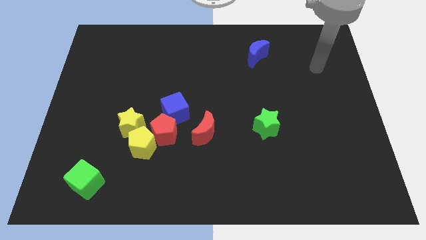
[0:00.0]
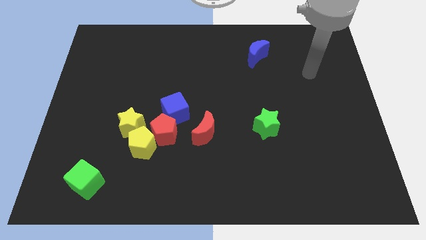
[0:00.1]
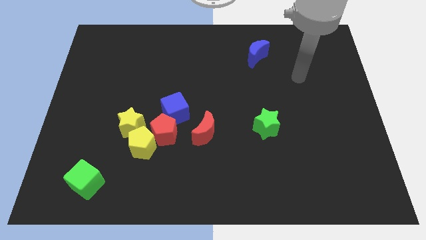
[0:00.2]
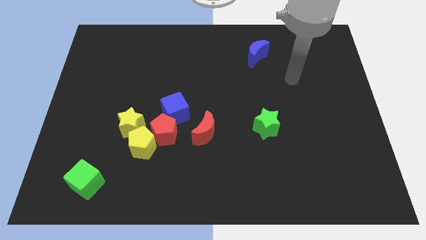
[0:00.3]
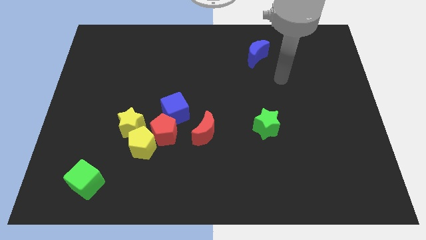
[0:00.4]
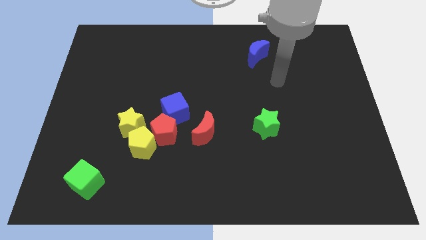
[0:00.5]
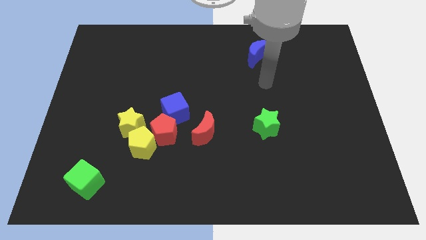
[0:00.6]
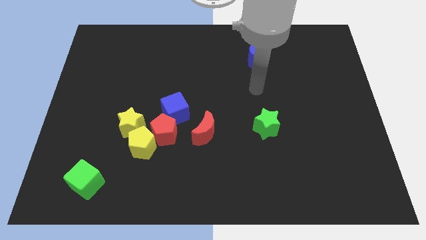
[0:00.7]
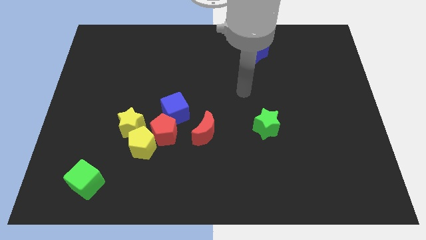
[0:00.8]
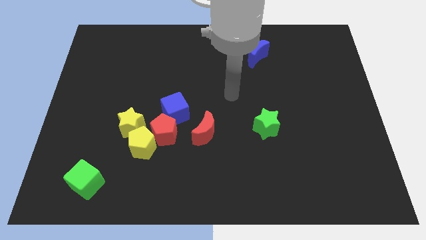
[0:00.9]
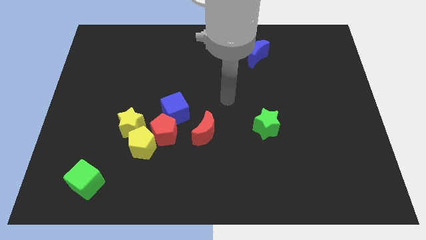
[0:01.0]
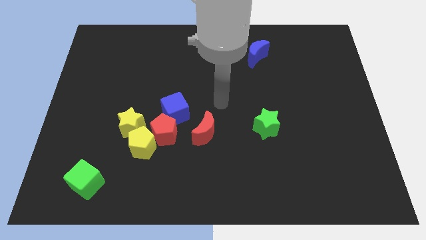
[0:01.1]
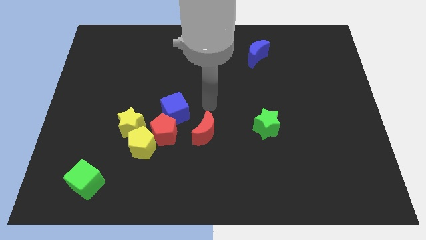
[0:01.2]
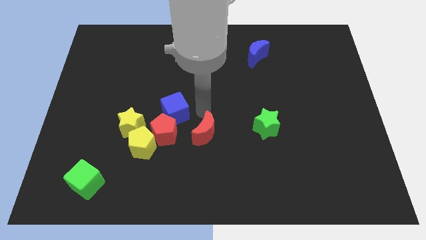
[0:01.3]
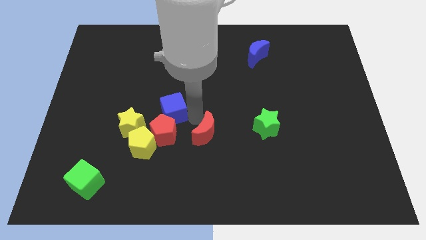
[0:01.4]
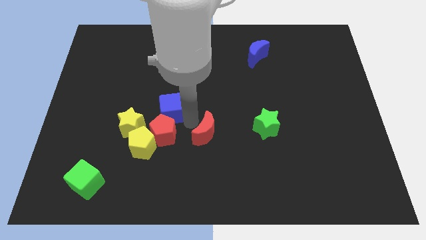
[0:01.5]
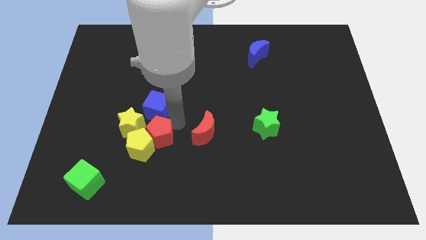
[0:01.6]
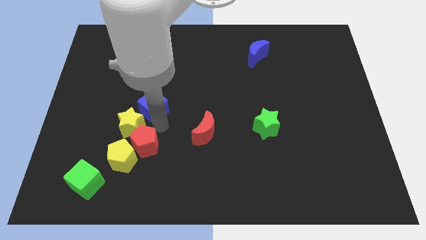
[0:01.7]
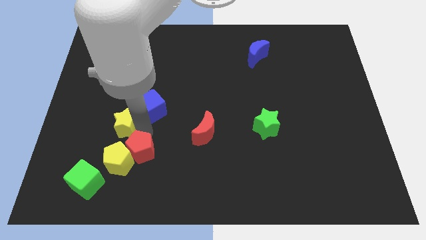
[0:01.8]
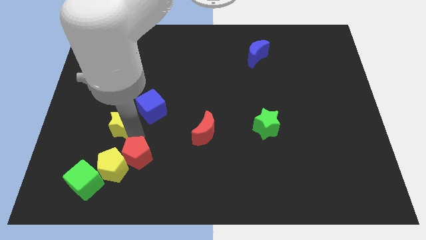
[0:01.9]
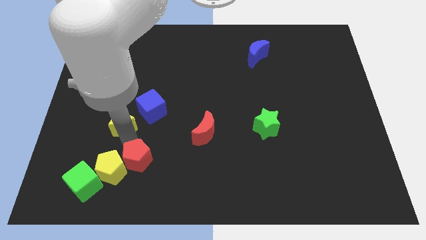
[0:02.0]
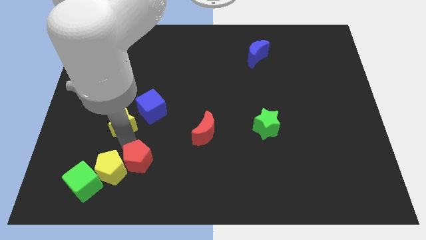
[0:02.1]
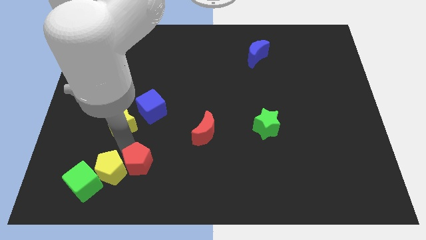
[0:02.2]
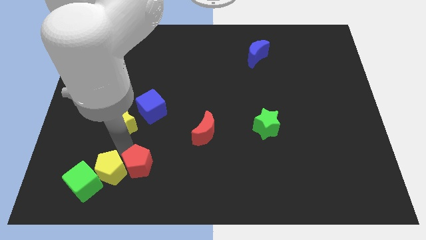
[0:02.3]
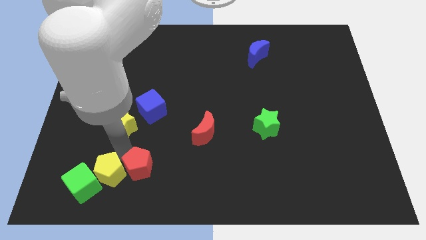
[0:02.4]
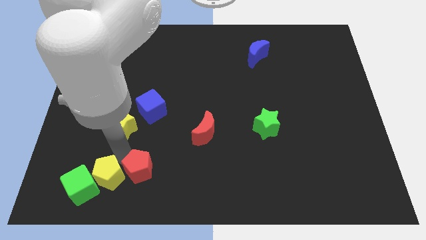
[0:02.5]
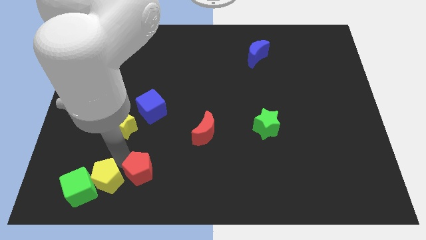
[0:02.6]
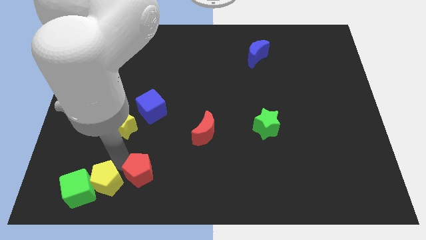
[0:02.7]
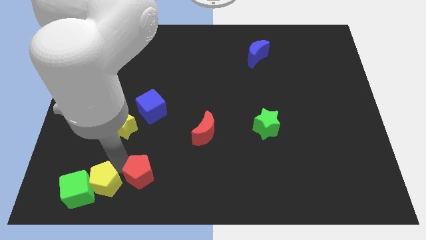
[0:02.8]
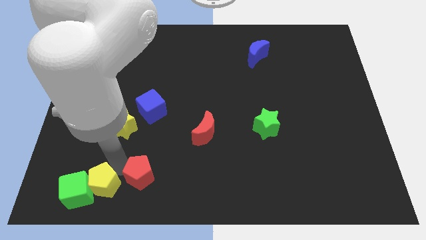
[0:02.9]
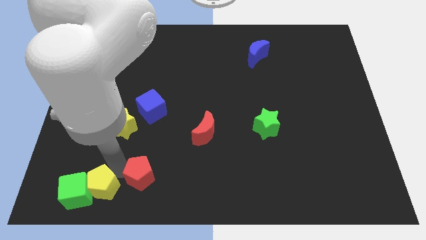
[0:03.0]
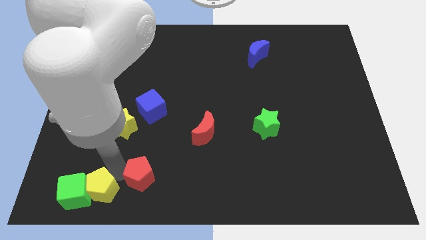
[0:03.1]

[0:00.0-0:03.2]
pull the yellow pentagon apart from the red pentagon and yellow star

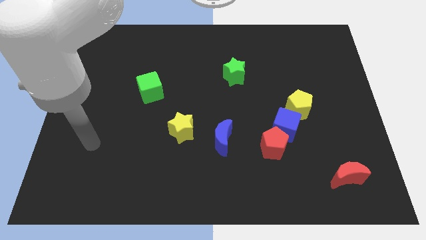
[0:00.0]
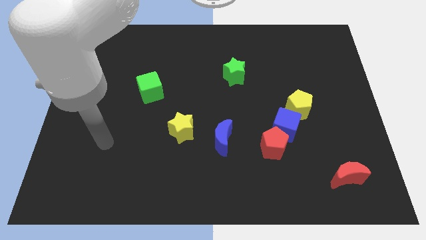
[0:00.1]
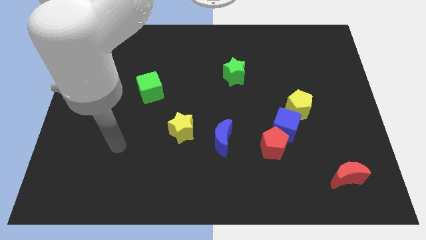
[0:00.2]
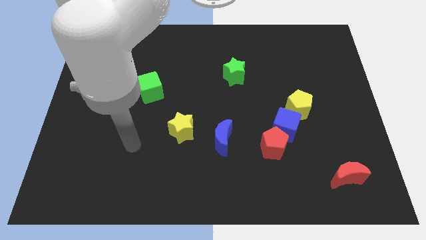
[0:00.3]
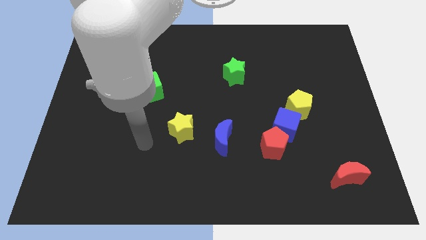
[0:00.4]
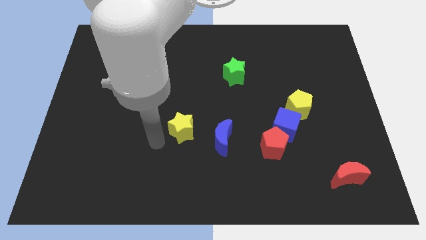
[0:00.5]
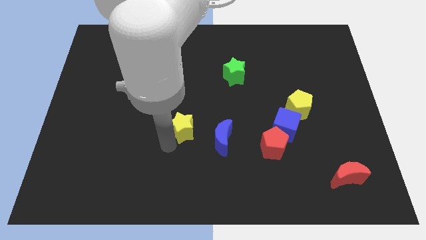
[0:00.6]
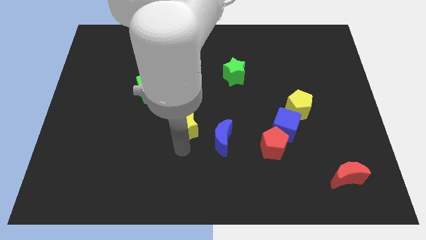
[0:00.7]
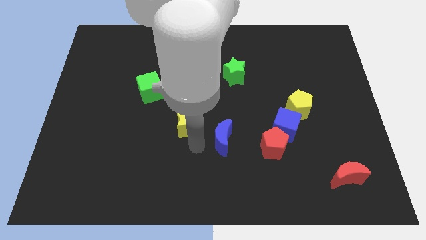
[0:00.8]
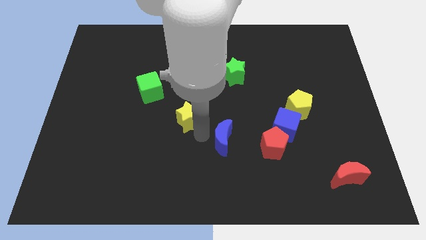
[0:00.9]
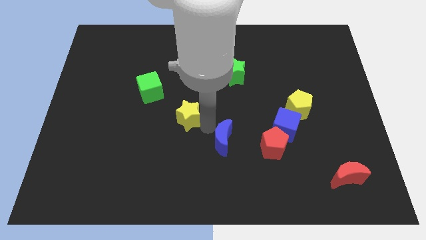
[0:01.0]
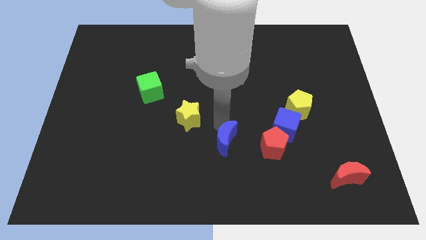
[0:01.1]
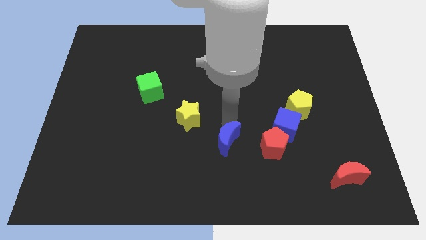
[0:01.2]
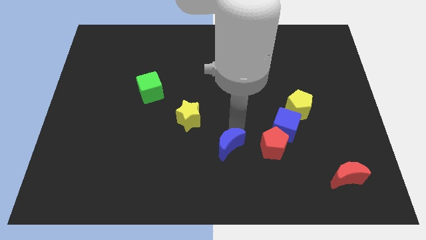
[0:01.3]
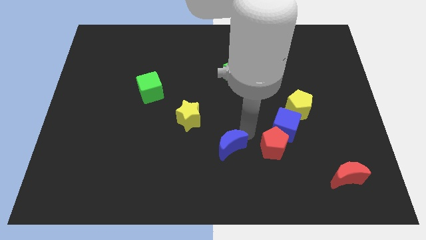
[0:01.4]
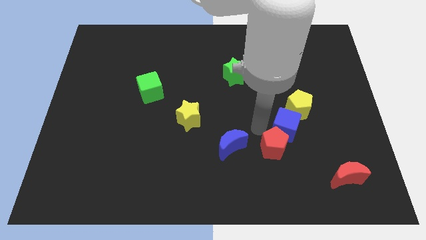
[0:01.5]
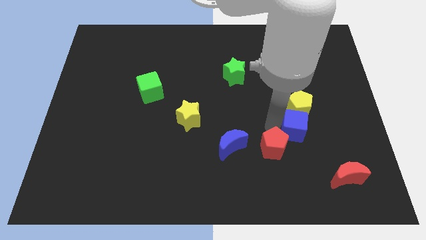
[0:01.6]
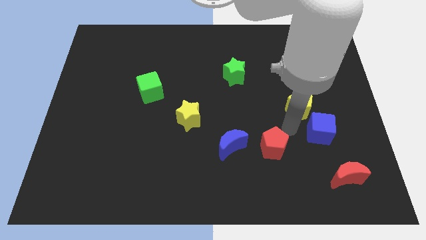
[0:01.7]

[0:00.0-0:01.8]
pull the red pentagon apart from the blue cube

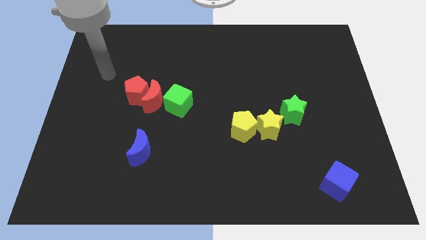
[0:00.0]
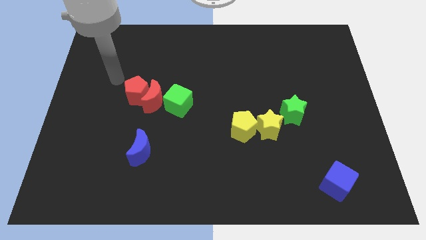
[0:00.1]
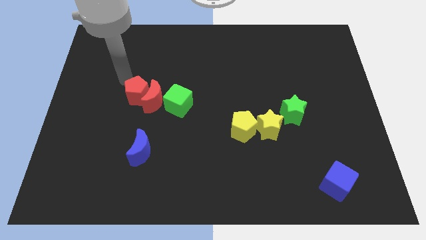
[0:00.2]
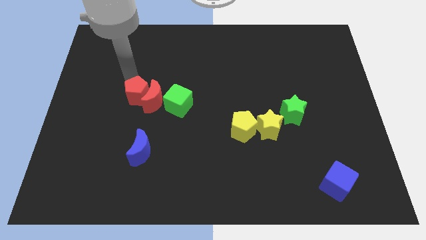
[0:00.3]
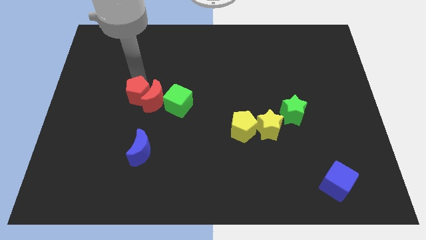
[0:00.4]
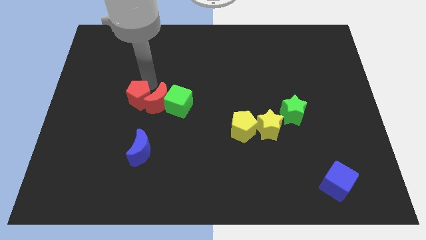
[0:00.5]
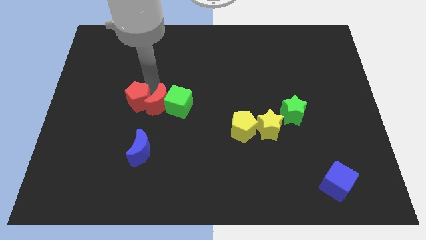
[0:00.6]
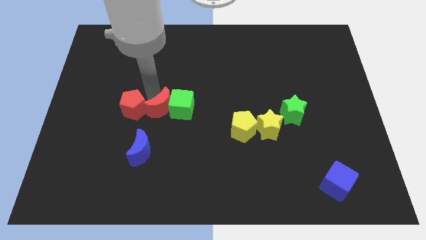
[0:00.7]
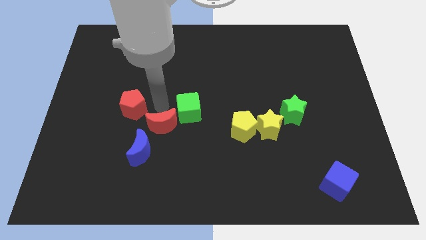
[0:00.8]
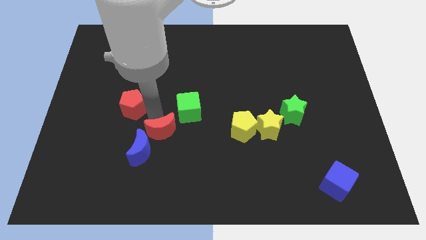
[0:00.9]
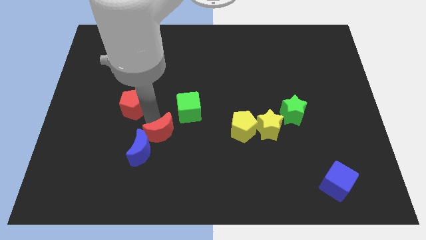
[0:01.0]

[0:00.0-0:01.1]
pull the red pentagon apart from the red moon

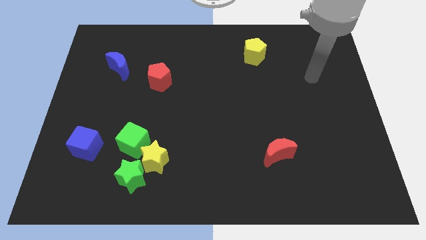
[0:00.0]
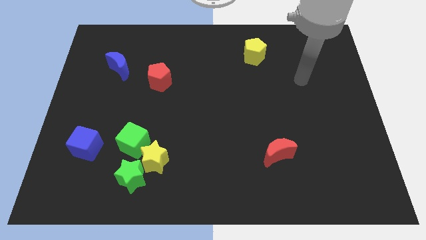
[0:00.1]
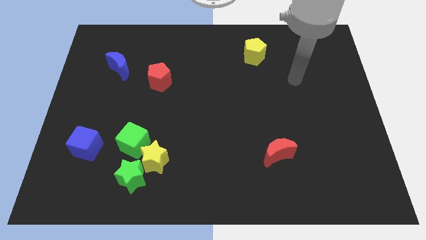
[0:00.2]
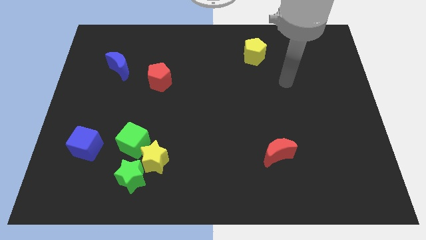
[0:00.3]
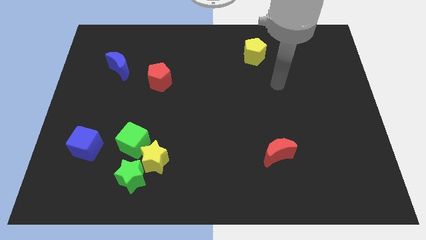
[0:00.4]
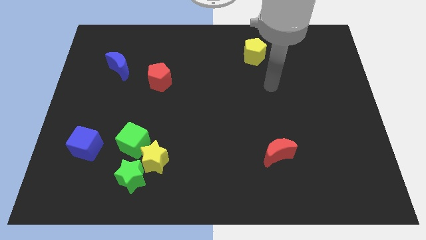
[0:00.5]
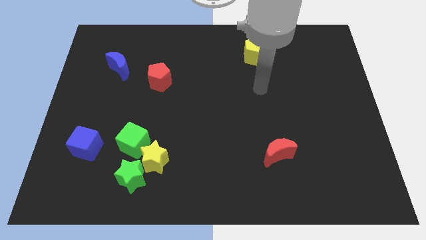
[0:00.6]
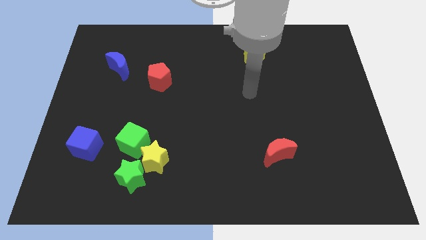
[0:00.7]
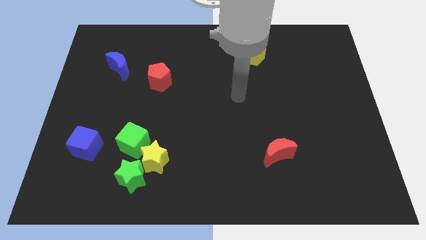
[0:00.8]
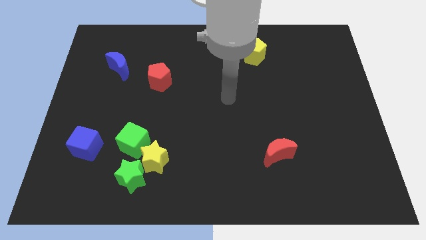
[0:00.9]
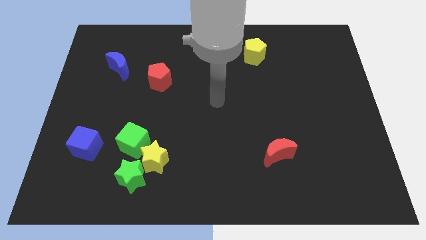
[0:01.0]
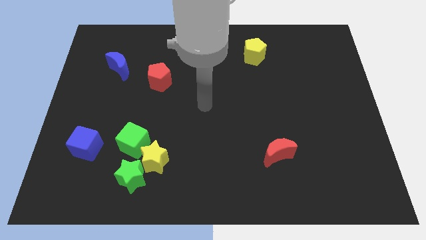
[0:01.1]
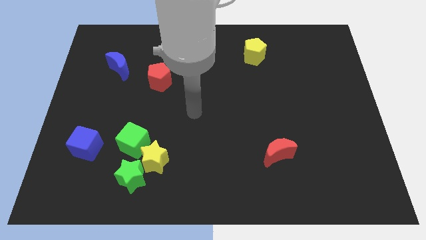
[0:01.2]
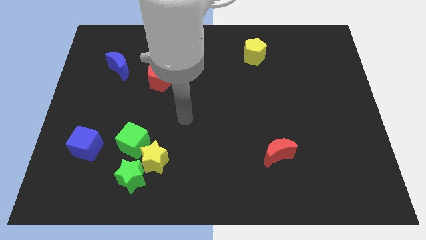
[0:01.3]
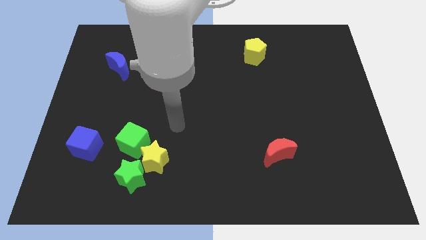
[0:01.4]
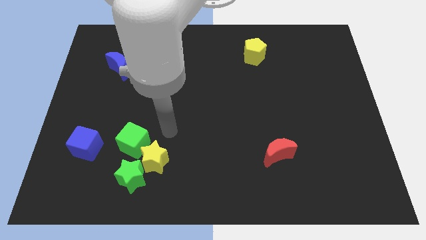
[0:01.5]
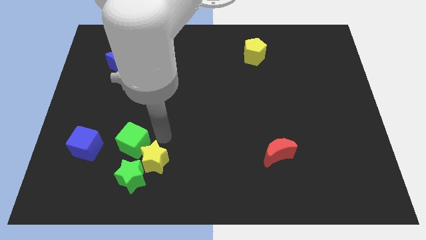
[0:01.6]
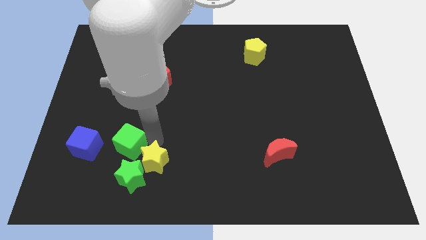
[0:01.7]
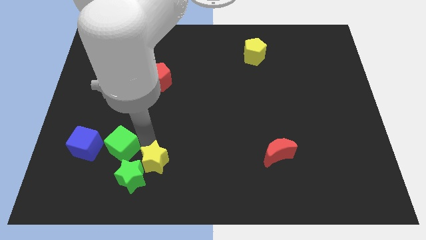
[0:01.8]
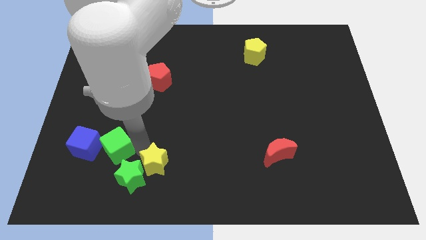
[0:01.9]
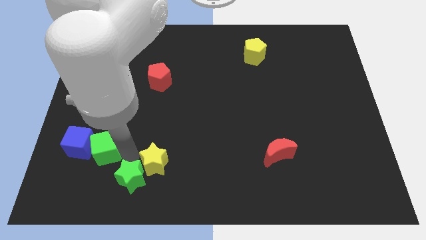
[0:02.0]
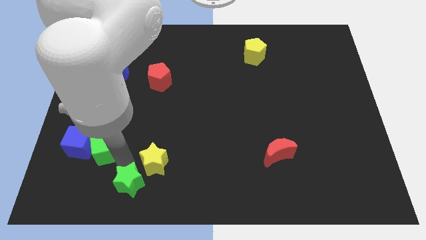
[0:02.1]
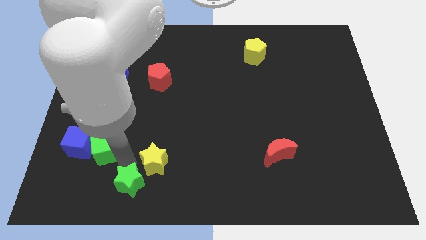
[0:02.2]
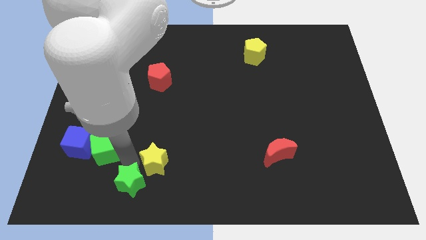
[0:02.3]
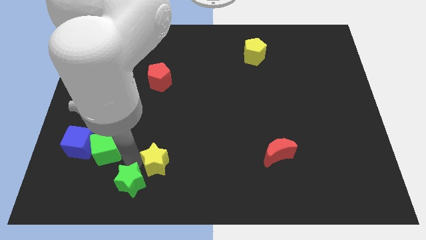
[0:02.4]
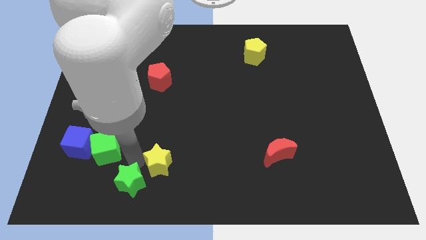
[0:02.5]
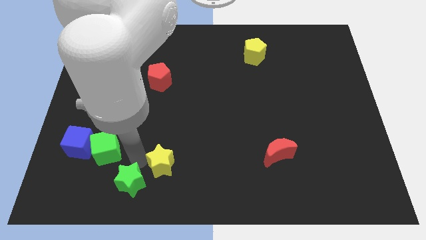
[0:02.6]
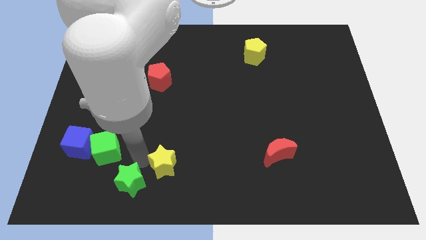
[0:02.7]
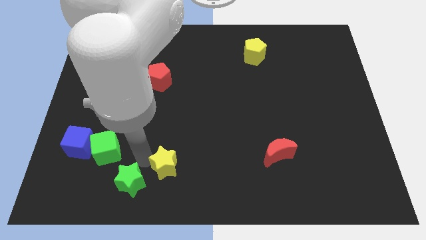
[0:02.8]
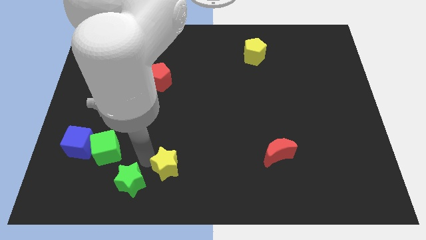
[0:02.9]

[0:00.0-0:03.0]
pull the yellow star apart from the green star and green cube

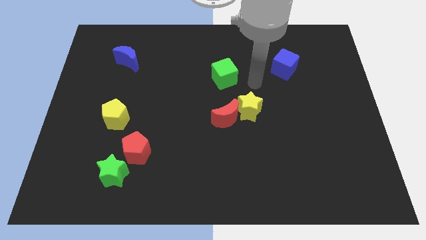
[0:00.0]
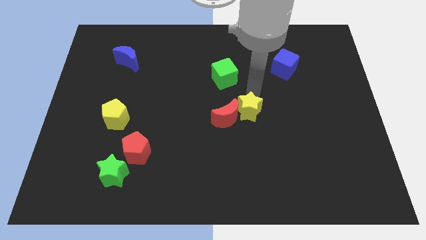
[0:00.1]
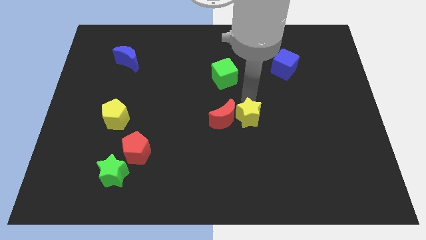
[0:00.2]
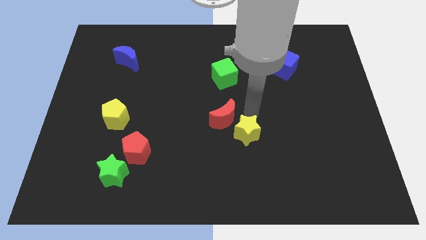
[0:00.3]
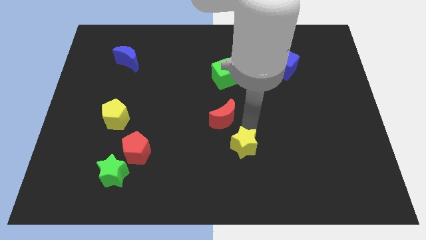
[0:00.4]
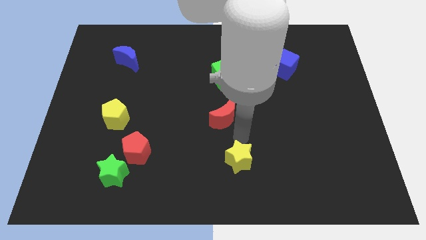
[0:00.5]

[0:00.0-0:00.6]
move the red moon away from the yellow star
